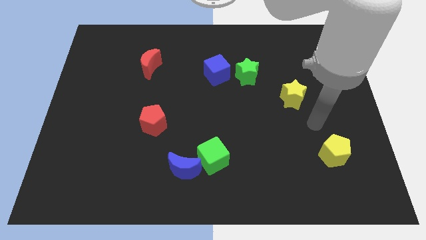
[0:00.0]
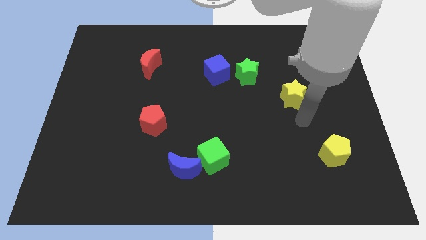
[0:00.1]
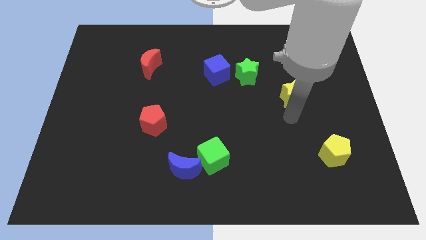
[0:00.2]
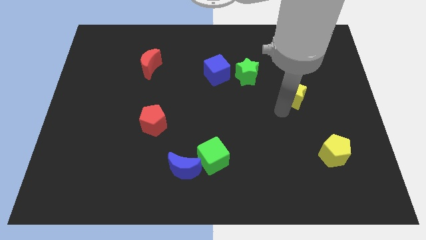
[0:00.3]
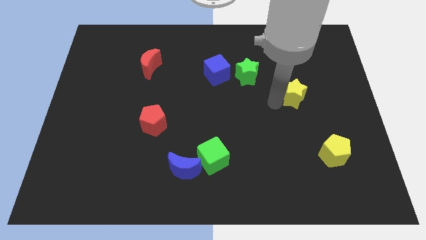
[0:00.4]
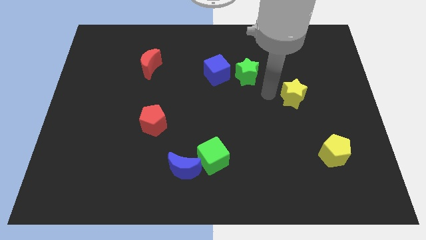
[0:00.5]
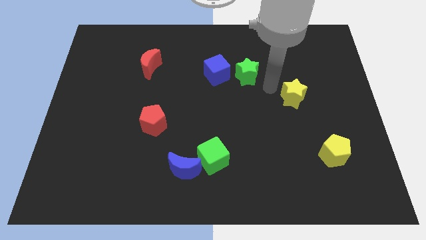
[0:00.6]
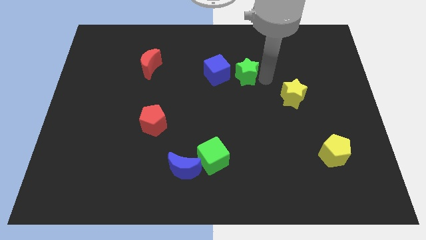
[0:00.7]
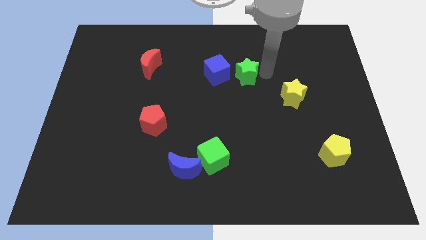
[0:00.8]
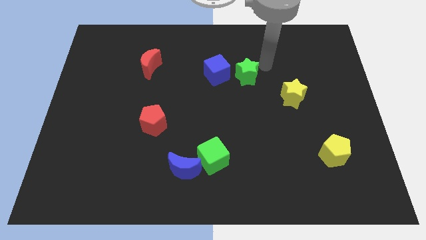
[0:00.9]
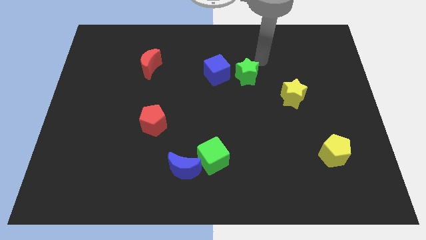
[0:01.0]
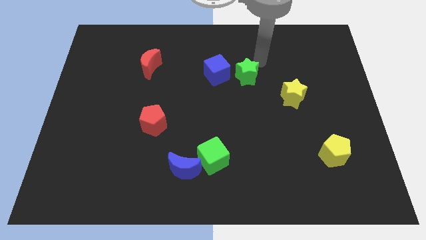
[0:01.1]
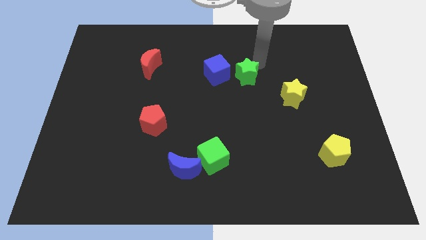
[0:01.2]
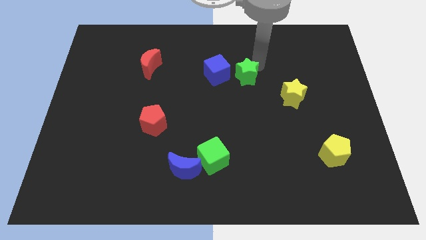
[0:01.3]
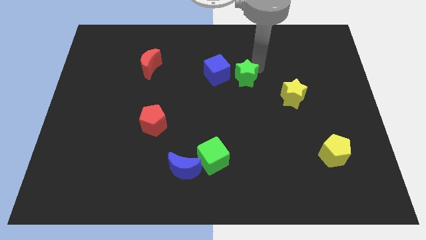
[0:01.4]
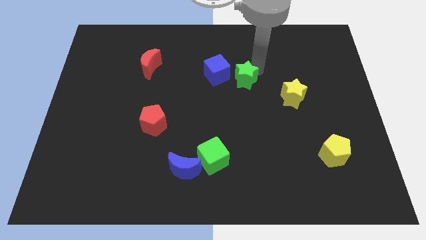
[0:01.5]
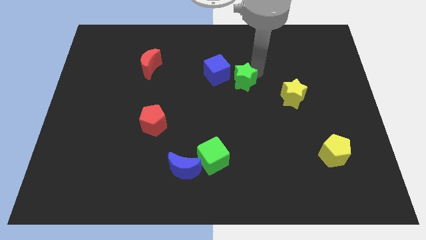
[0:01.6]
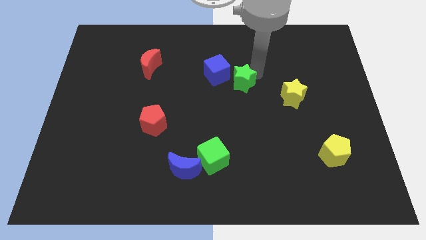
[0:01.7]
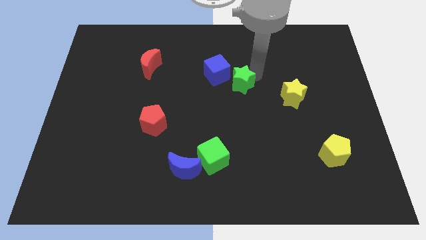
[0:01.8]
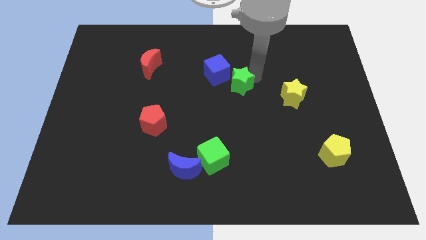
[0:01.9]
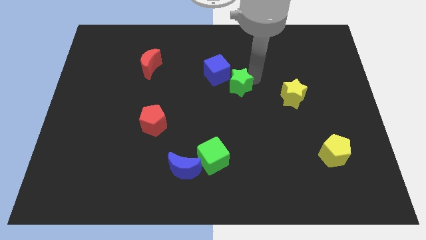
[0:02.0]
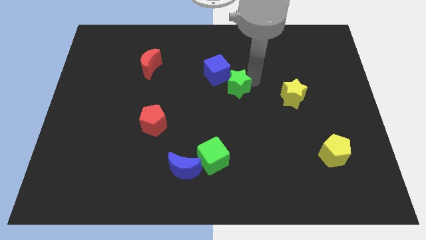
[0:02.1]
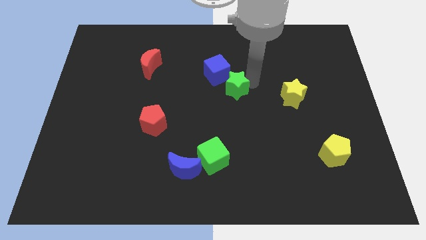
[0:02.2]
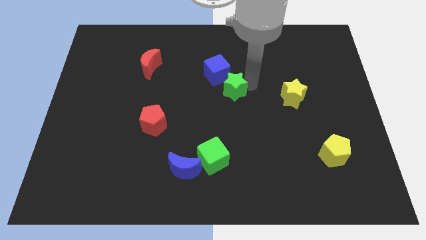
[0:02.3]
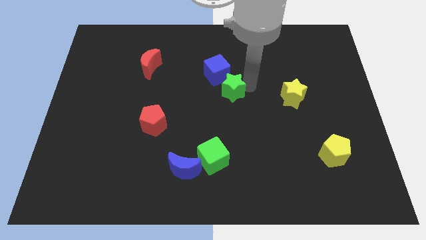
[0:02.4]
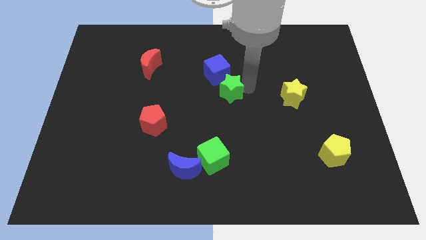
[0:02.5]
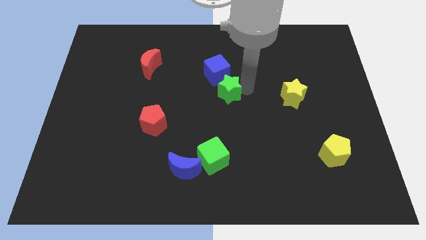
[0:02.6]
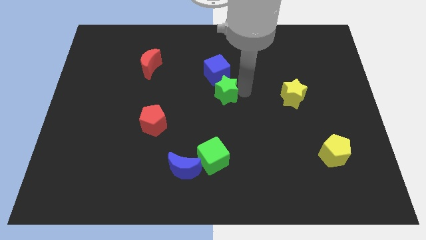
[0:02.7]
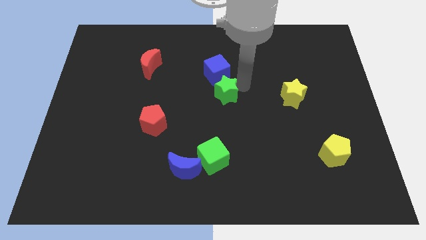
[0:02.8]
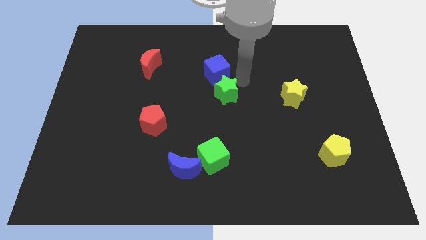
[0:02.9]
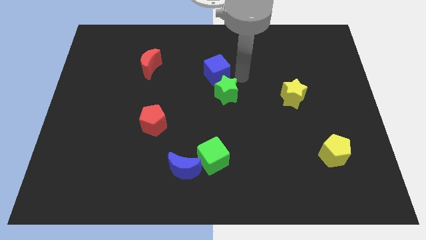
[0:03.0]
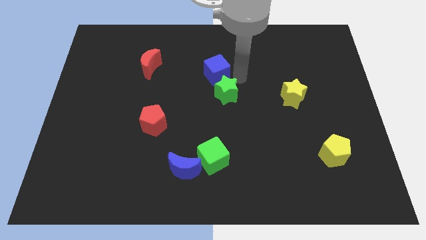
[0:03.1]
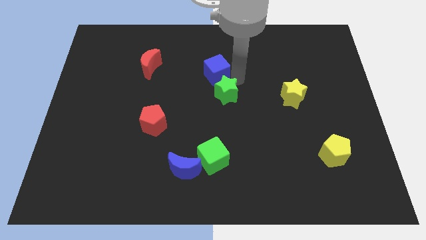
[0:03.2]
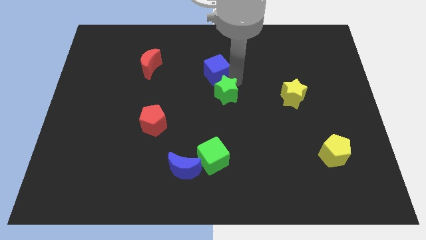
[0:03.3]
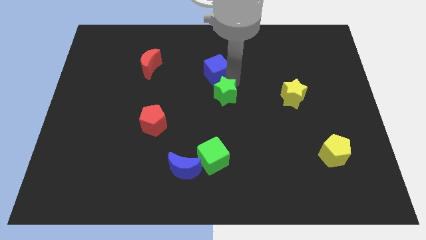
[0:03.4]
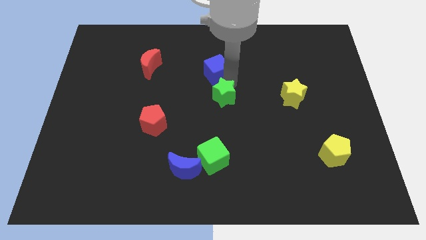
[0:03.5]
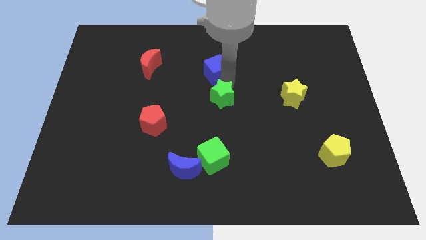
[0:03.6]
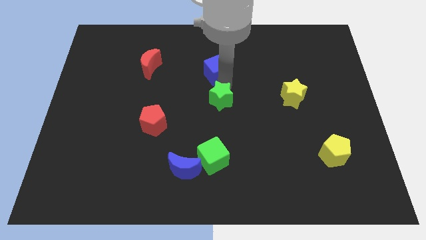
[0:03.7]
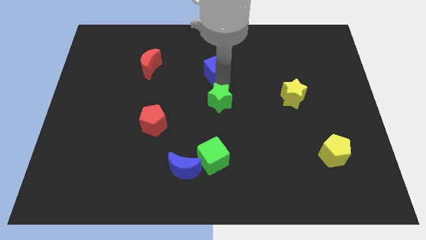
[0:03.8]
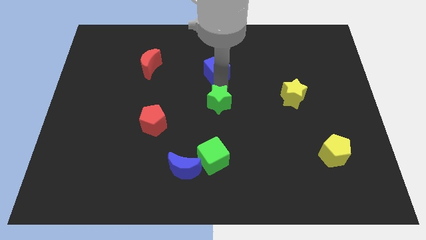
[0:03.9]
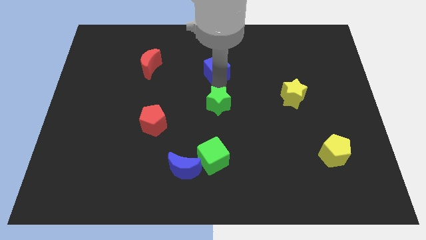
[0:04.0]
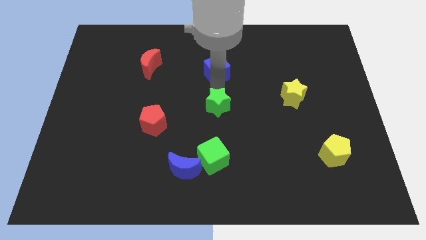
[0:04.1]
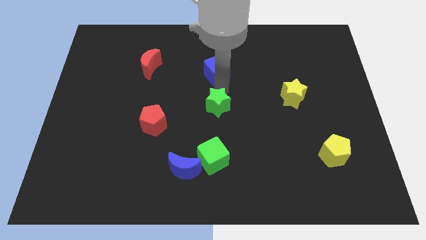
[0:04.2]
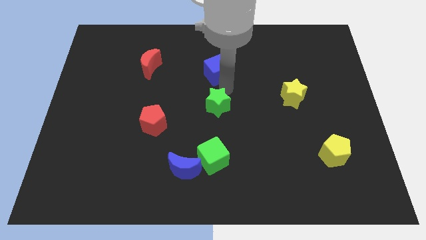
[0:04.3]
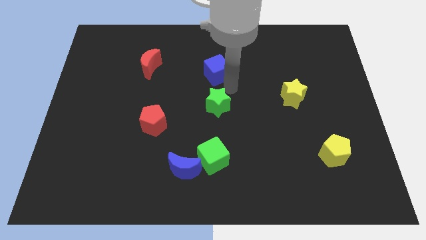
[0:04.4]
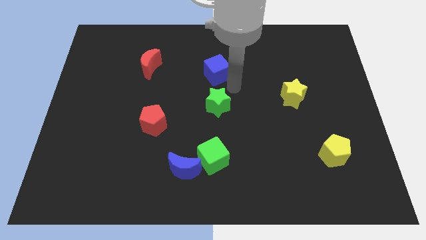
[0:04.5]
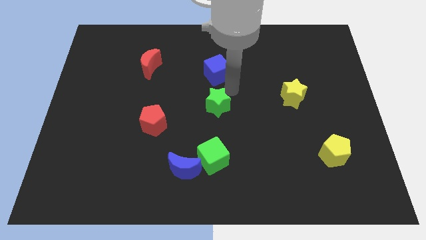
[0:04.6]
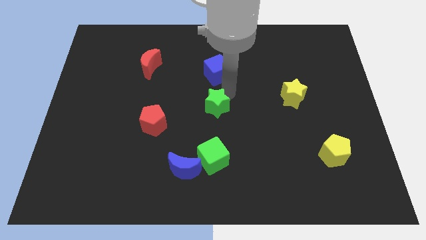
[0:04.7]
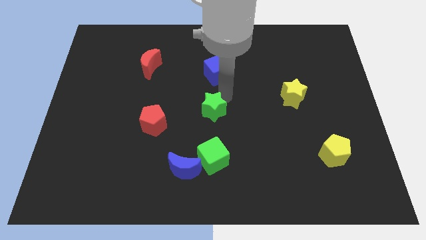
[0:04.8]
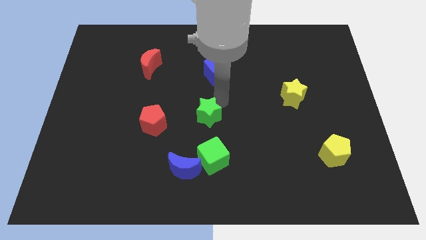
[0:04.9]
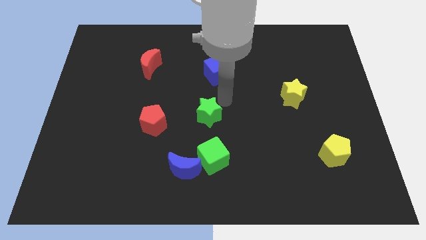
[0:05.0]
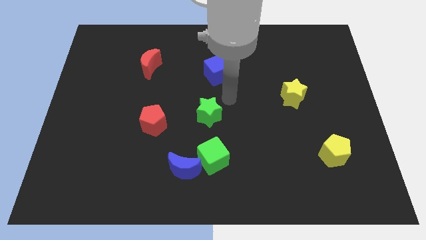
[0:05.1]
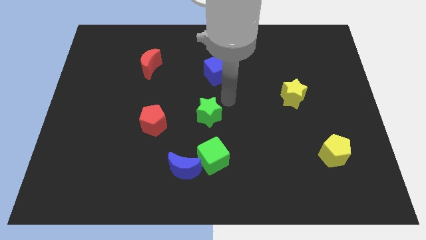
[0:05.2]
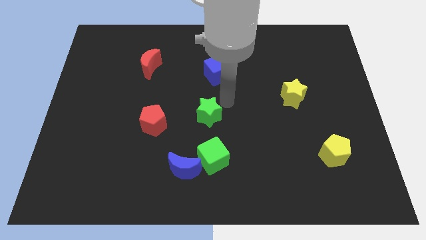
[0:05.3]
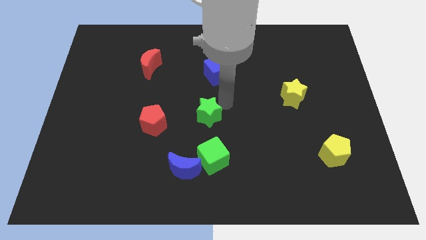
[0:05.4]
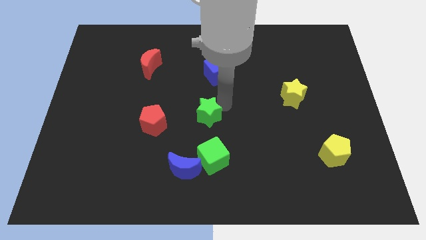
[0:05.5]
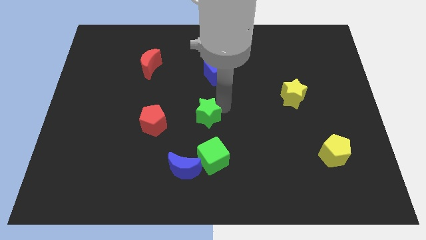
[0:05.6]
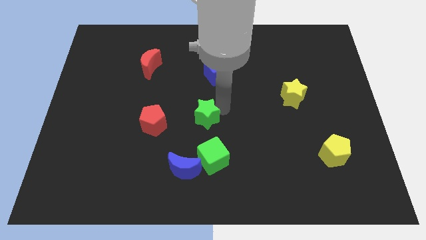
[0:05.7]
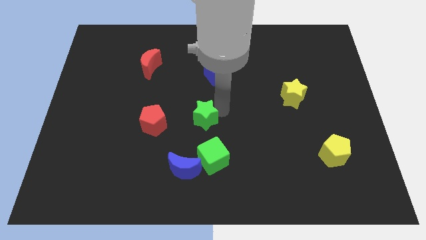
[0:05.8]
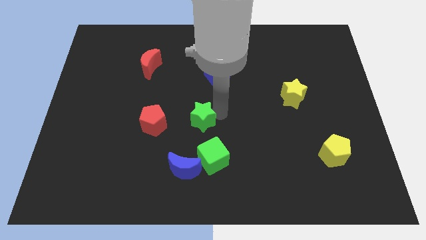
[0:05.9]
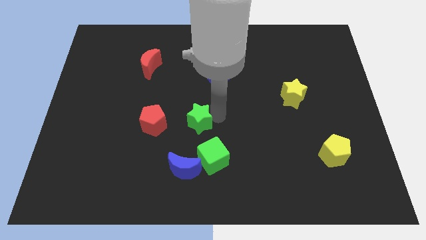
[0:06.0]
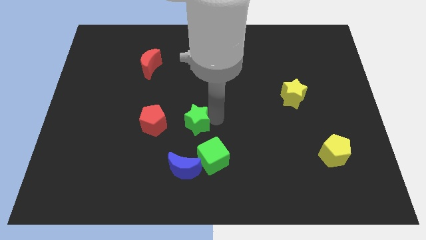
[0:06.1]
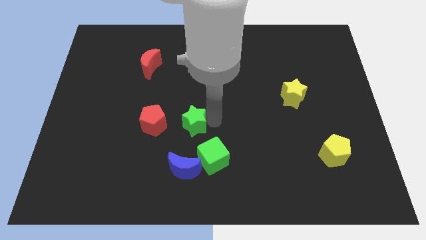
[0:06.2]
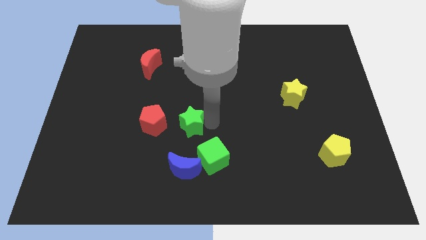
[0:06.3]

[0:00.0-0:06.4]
slide the green star down and left

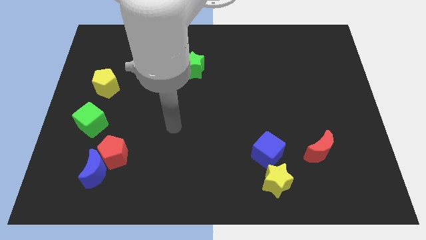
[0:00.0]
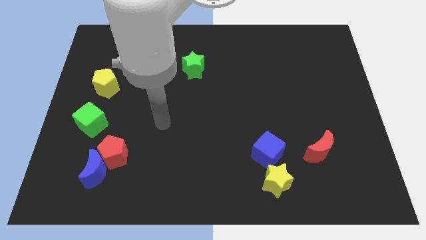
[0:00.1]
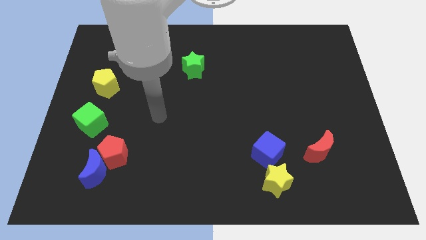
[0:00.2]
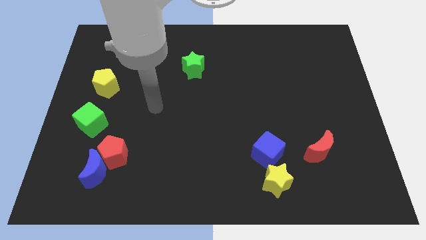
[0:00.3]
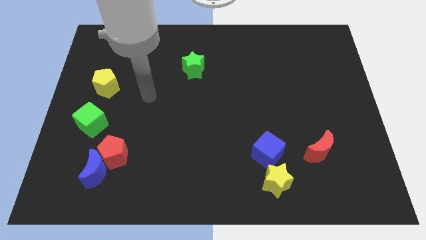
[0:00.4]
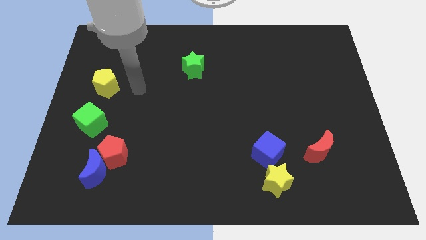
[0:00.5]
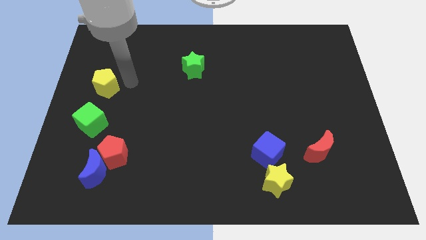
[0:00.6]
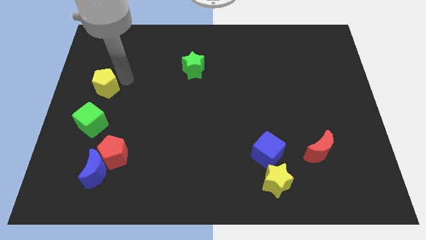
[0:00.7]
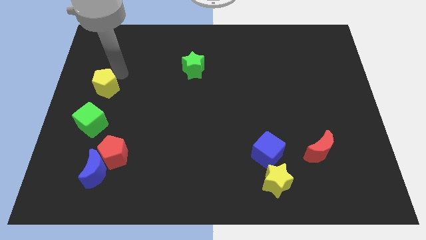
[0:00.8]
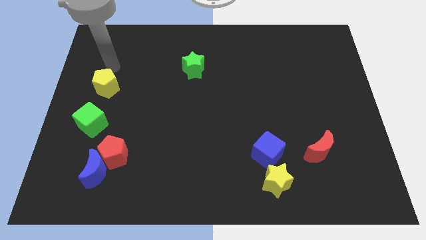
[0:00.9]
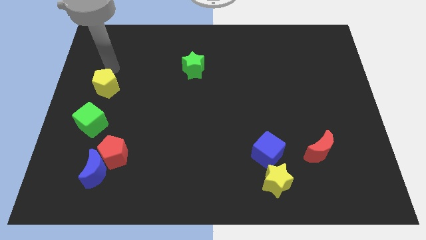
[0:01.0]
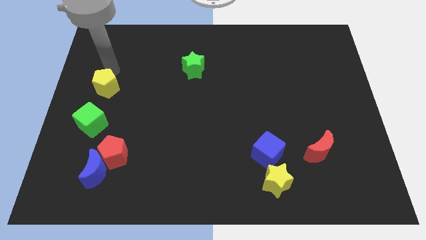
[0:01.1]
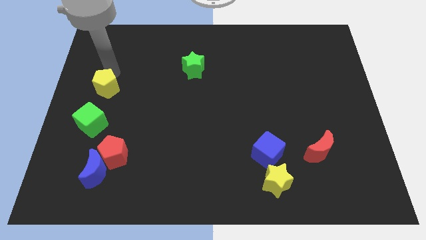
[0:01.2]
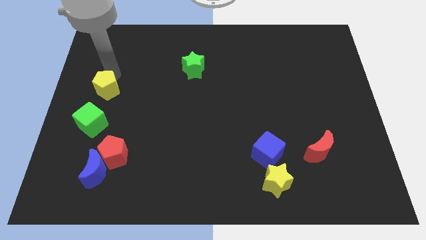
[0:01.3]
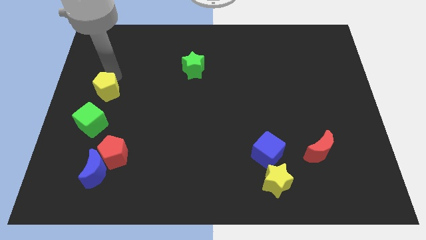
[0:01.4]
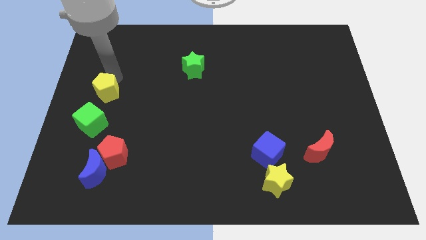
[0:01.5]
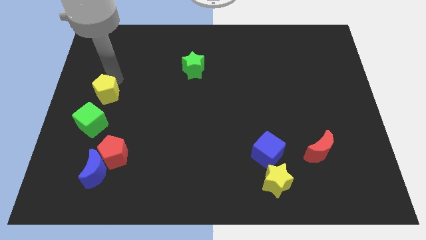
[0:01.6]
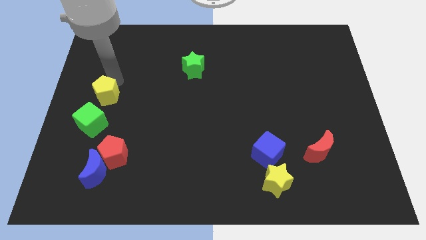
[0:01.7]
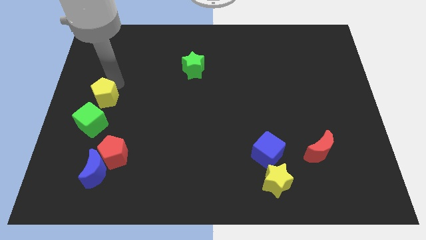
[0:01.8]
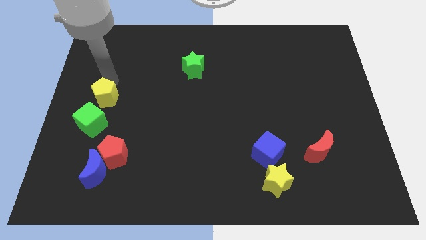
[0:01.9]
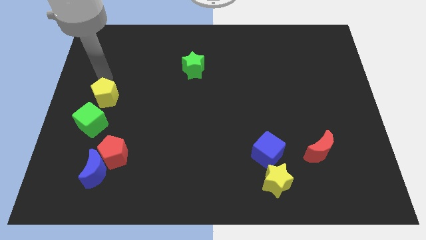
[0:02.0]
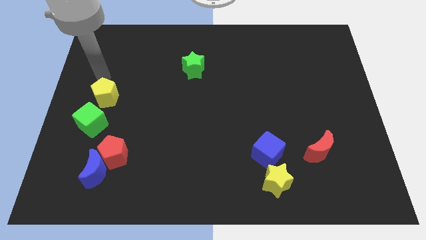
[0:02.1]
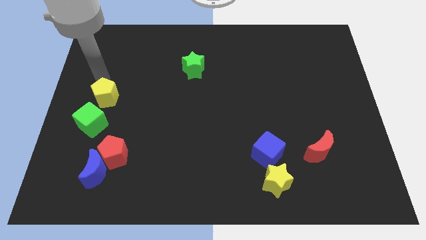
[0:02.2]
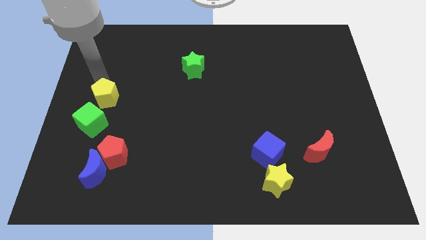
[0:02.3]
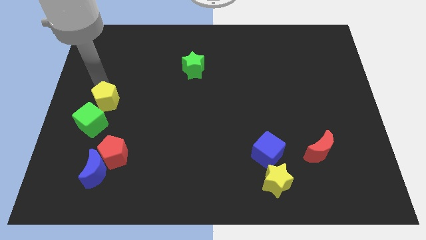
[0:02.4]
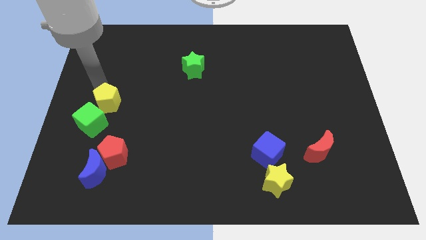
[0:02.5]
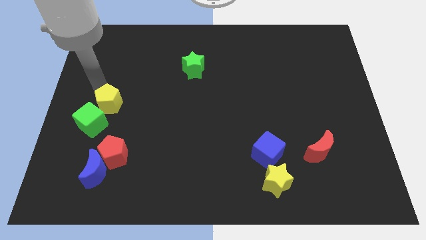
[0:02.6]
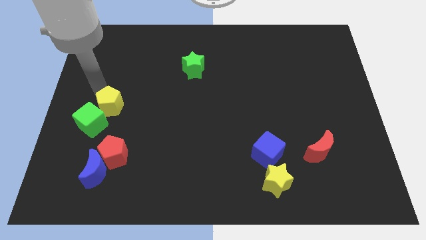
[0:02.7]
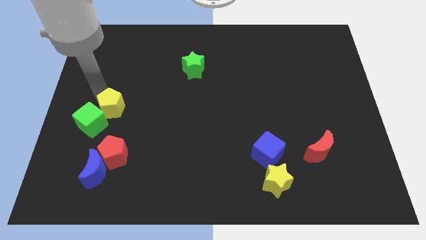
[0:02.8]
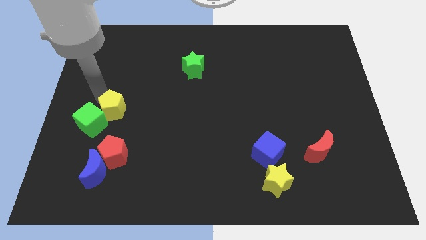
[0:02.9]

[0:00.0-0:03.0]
push the yellow pentagon a bit down
